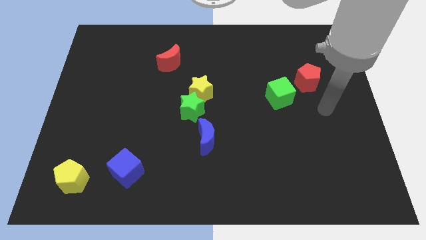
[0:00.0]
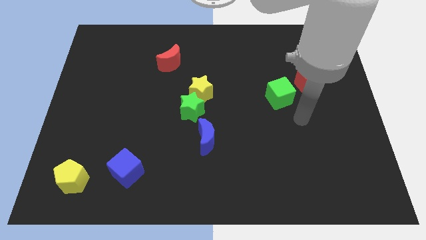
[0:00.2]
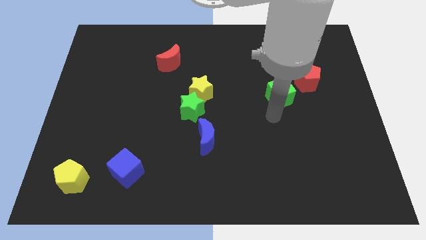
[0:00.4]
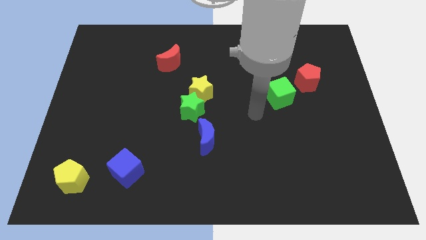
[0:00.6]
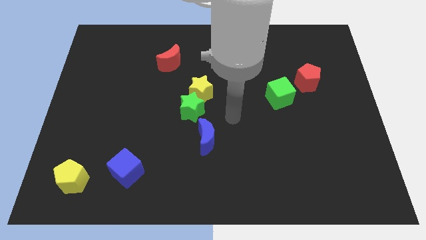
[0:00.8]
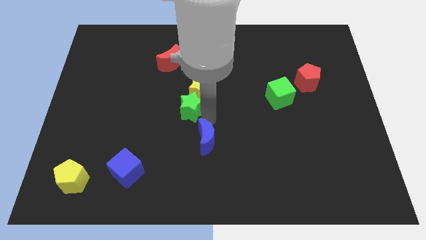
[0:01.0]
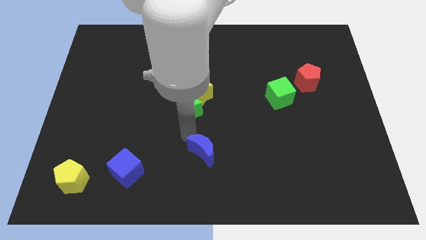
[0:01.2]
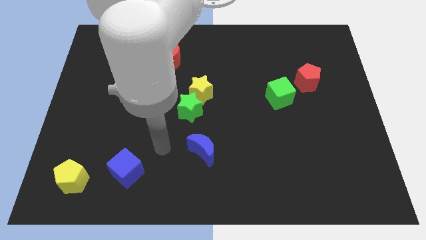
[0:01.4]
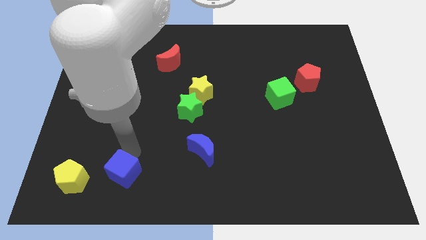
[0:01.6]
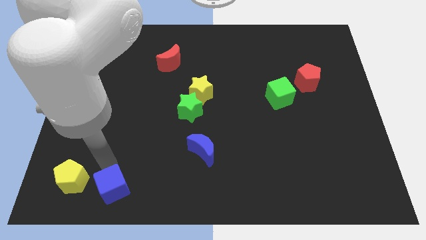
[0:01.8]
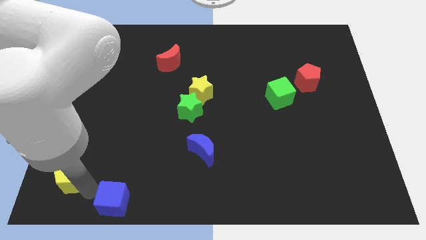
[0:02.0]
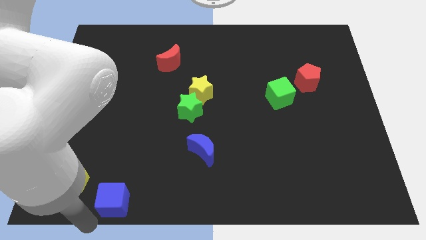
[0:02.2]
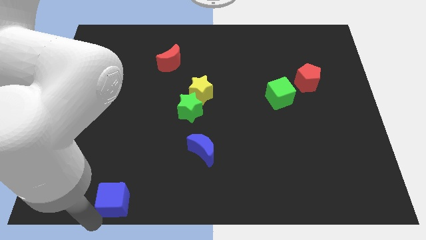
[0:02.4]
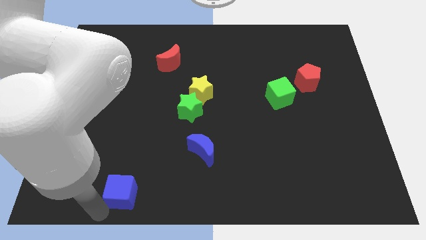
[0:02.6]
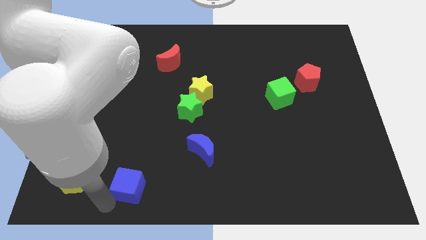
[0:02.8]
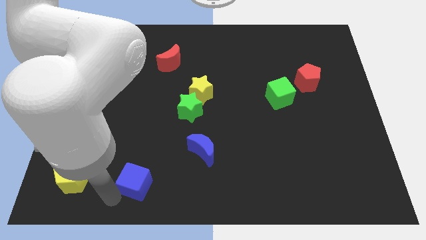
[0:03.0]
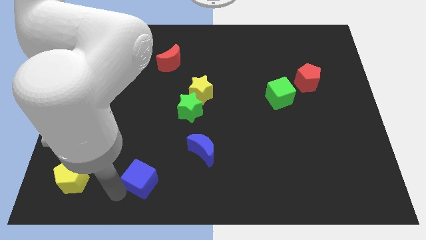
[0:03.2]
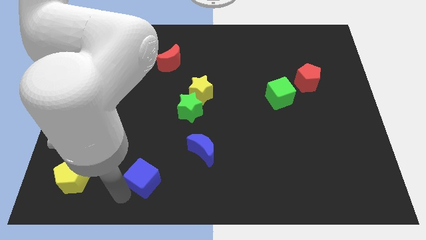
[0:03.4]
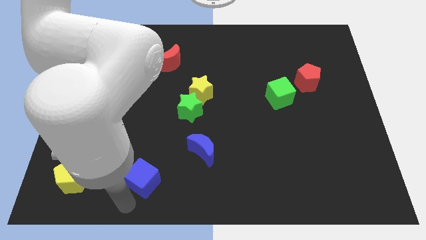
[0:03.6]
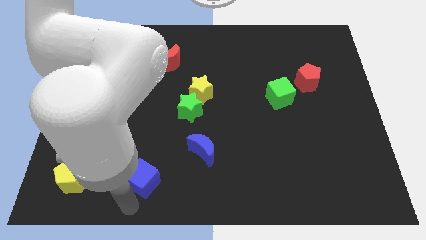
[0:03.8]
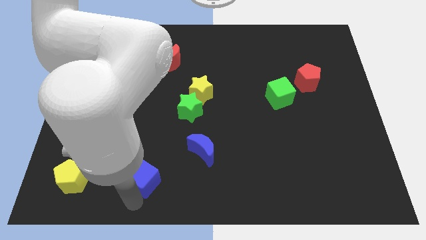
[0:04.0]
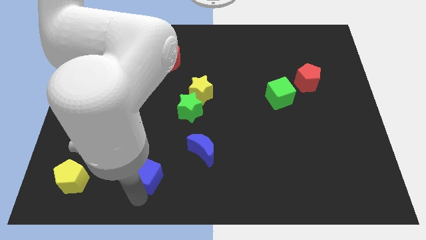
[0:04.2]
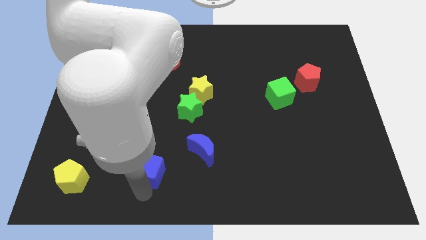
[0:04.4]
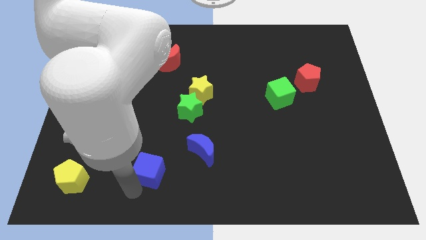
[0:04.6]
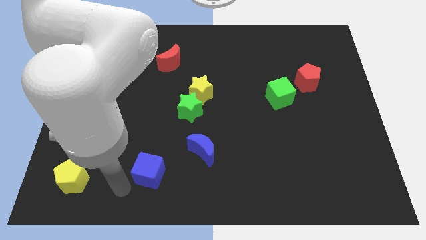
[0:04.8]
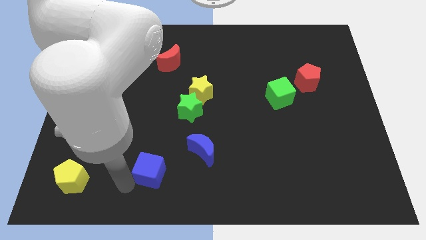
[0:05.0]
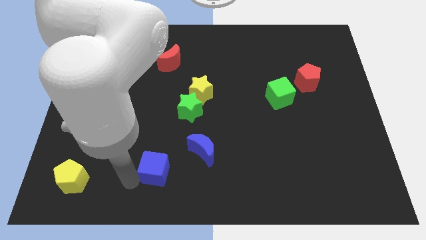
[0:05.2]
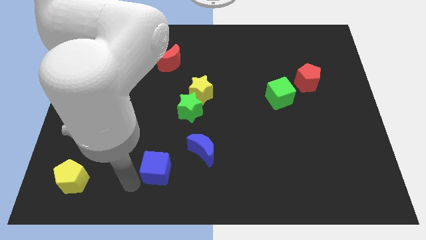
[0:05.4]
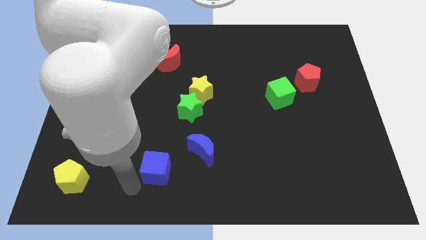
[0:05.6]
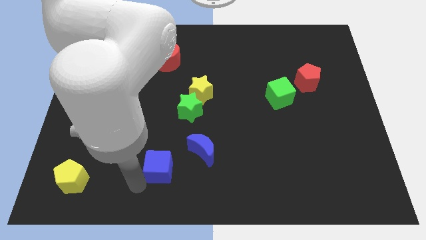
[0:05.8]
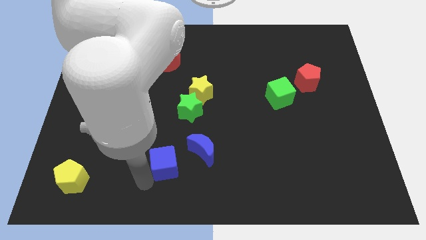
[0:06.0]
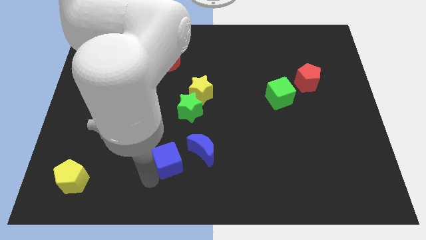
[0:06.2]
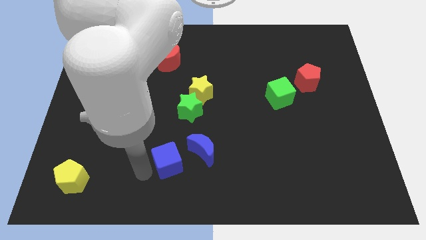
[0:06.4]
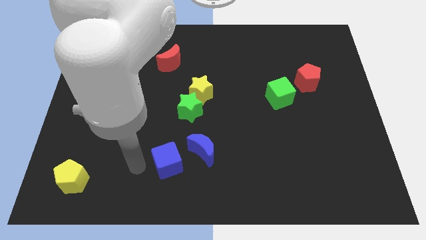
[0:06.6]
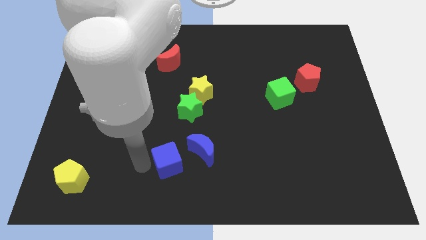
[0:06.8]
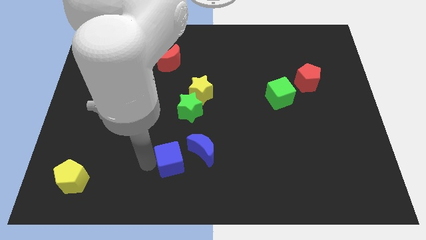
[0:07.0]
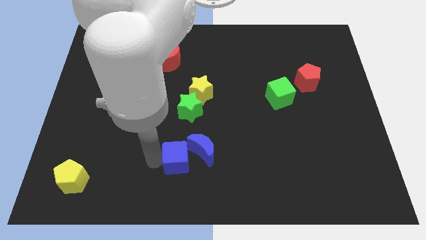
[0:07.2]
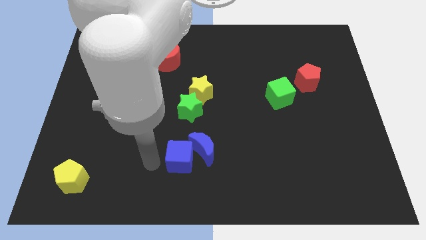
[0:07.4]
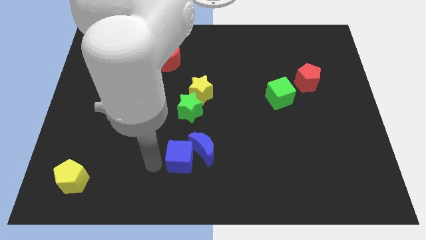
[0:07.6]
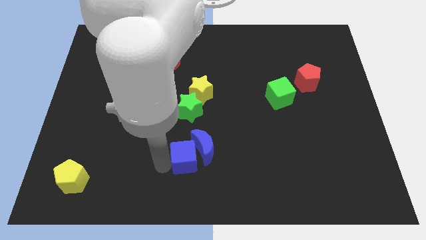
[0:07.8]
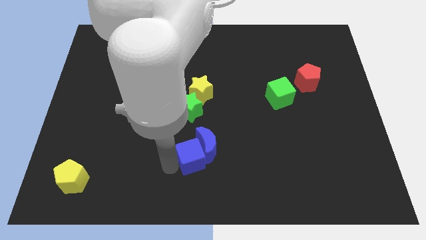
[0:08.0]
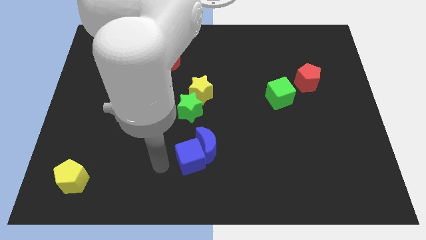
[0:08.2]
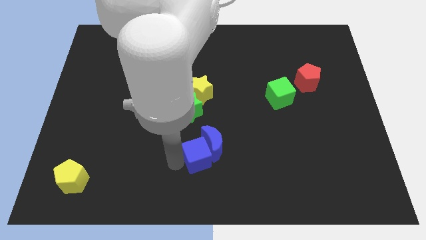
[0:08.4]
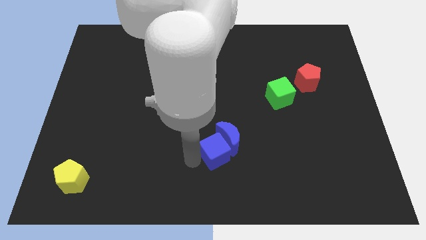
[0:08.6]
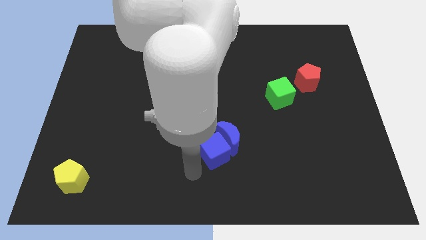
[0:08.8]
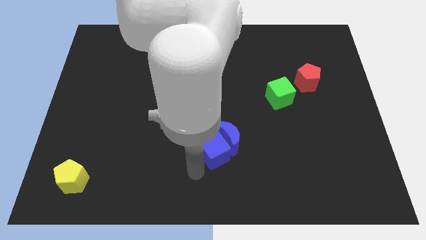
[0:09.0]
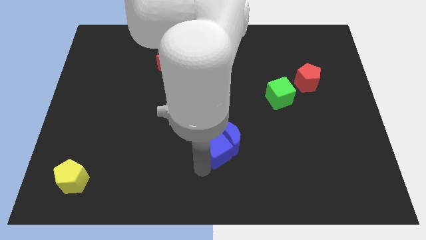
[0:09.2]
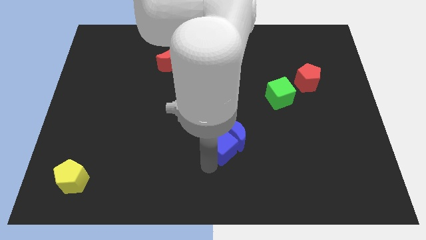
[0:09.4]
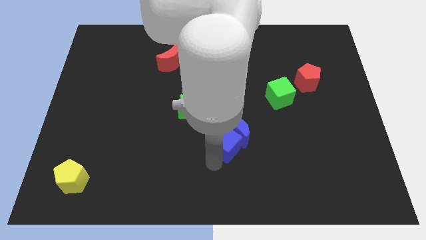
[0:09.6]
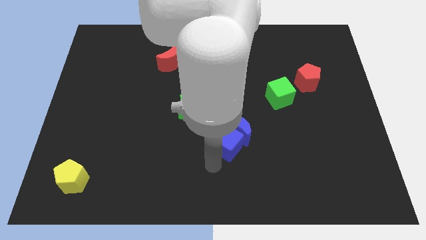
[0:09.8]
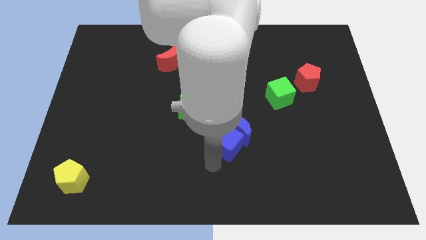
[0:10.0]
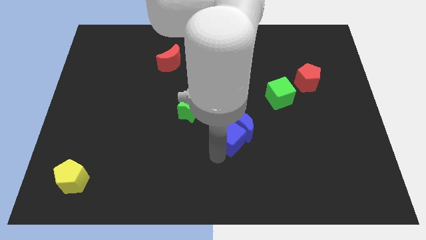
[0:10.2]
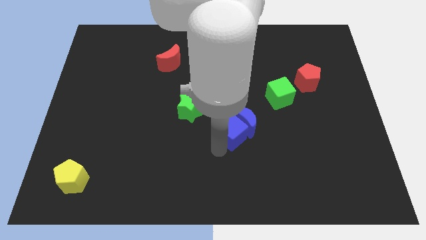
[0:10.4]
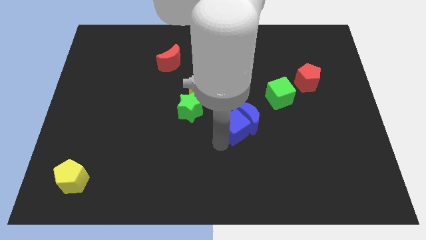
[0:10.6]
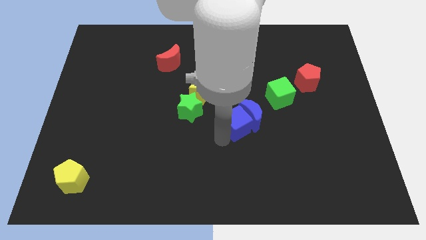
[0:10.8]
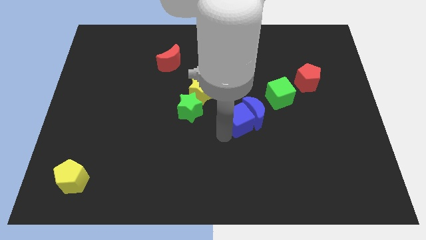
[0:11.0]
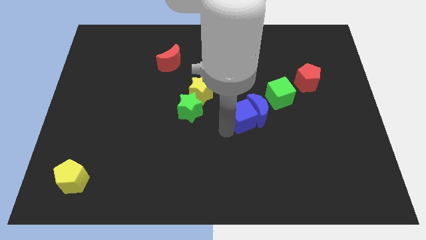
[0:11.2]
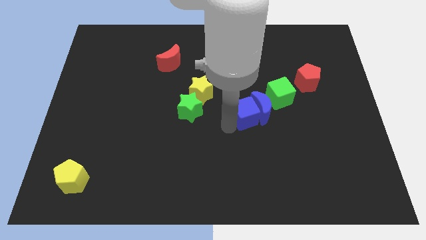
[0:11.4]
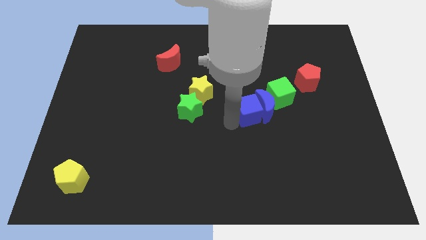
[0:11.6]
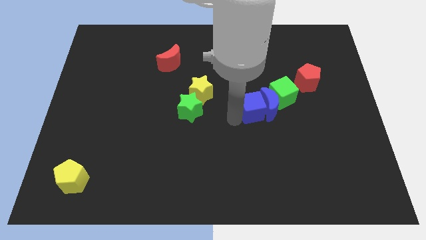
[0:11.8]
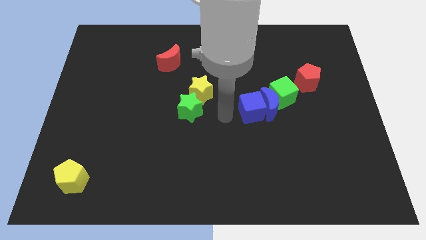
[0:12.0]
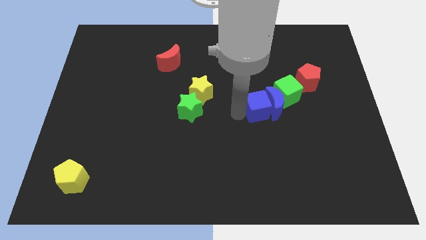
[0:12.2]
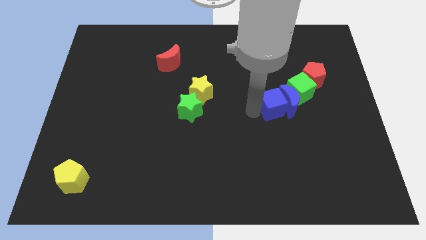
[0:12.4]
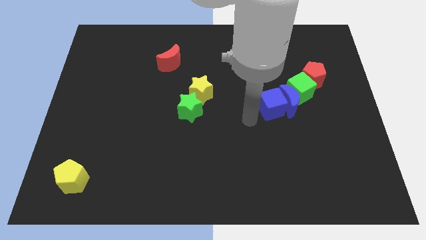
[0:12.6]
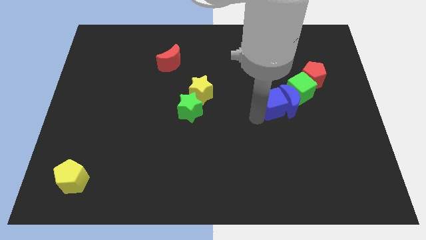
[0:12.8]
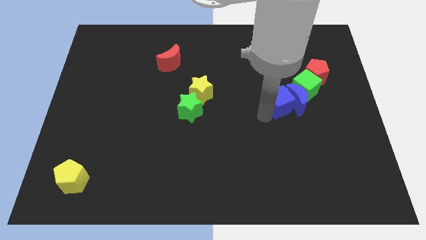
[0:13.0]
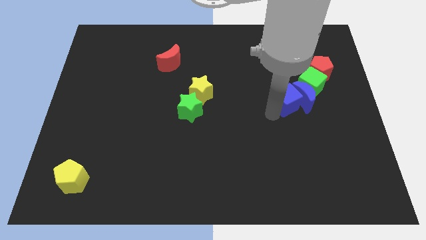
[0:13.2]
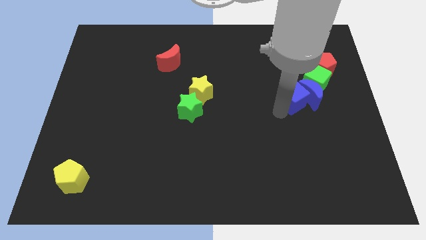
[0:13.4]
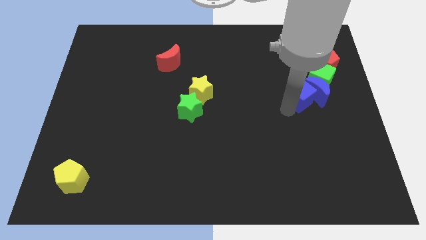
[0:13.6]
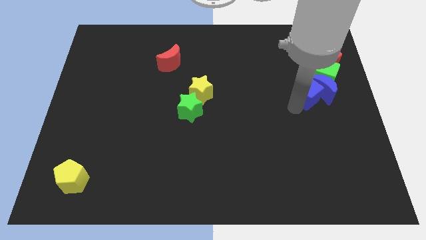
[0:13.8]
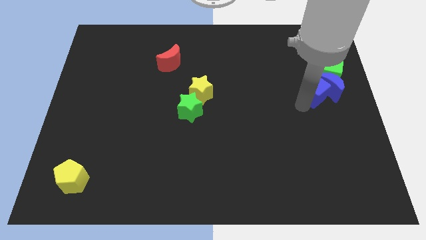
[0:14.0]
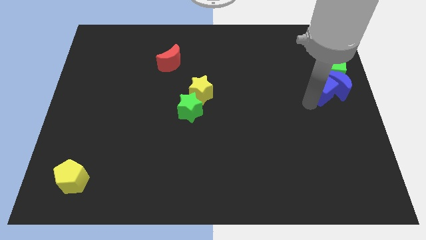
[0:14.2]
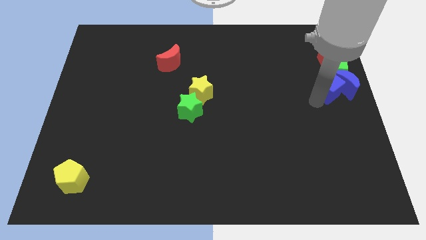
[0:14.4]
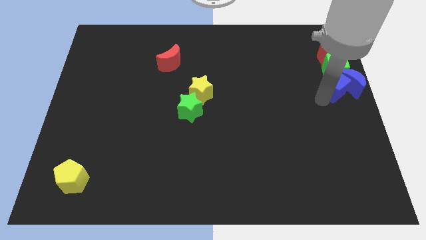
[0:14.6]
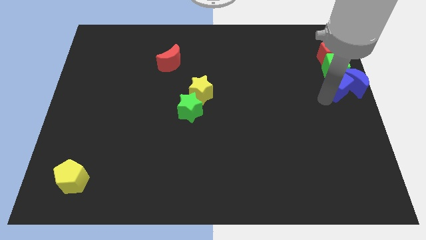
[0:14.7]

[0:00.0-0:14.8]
slide the blue cube towards the green cube
